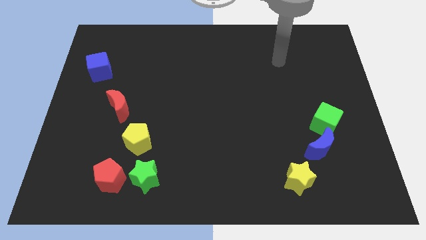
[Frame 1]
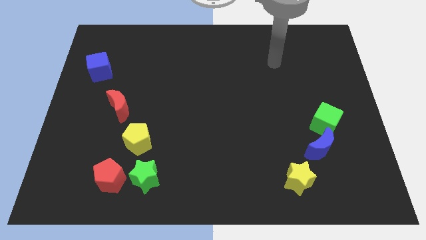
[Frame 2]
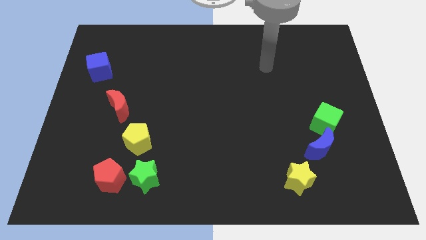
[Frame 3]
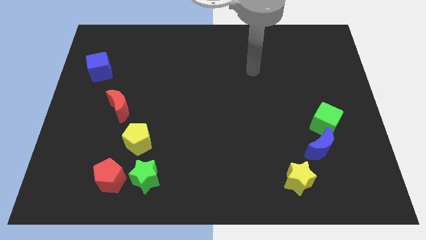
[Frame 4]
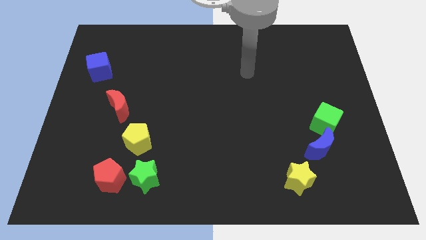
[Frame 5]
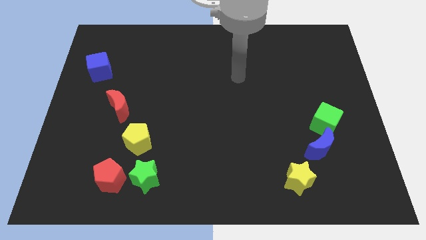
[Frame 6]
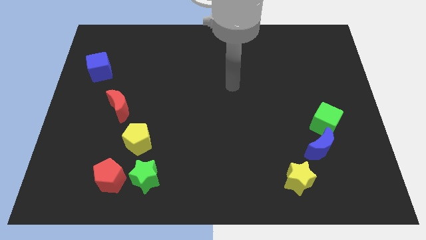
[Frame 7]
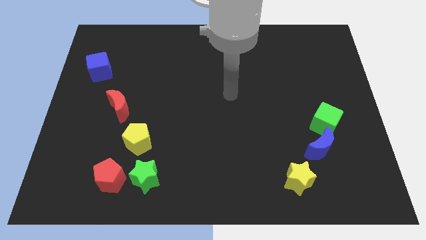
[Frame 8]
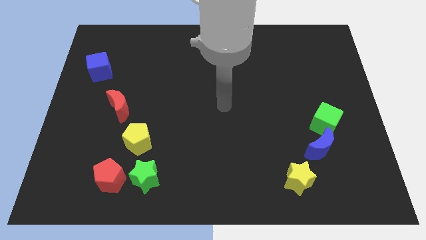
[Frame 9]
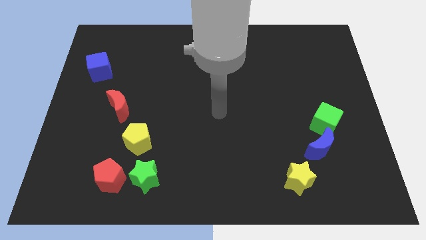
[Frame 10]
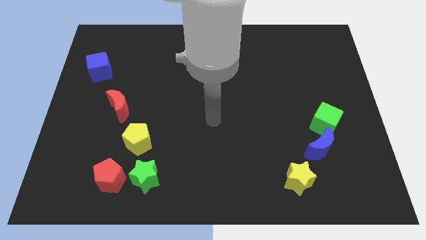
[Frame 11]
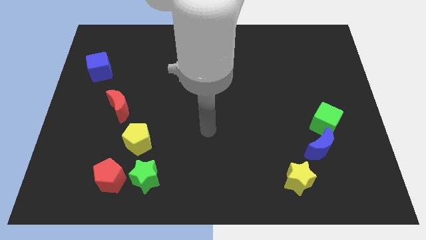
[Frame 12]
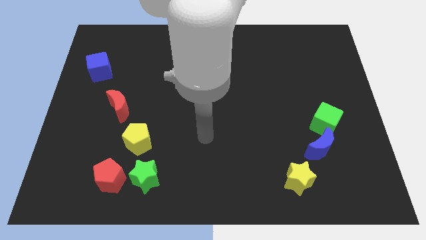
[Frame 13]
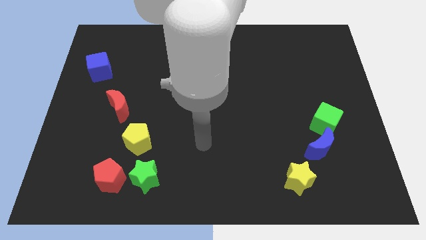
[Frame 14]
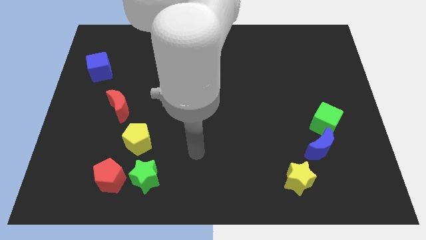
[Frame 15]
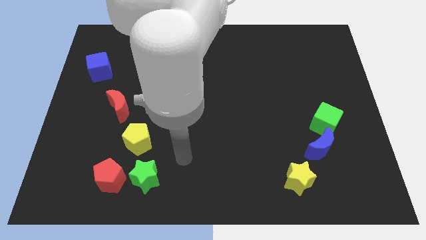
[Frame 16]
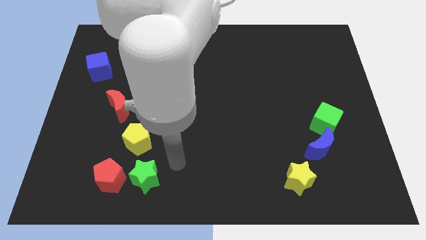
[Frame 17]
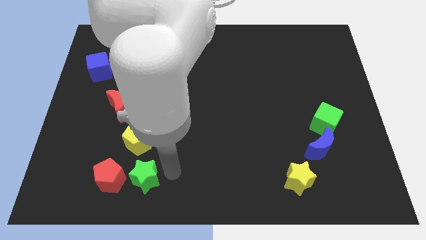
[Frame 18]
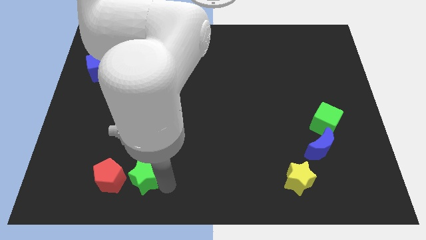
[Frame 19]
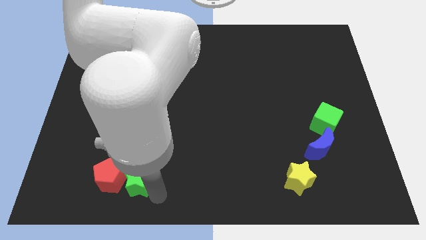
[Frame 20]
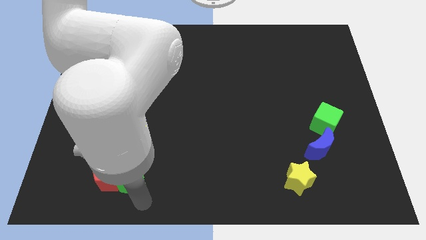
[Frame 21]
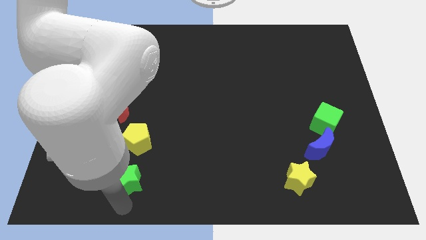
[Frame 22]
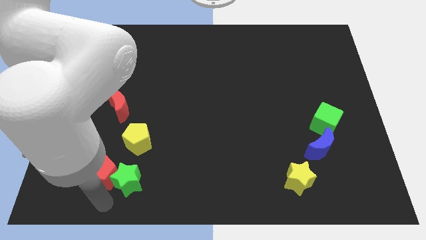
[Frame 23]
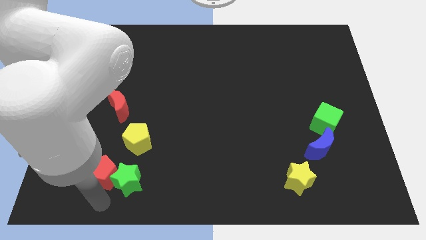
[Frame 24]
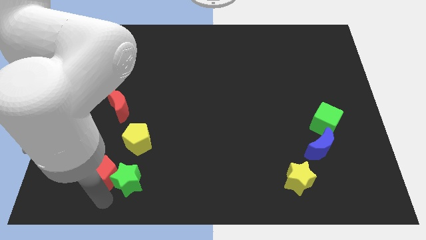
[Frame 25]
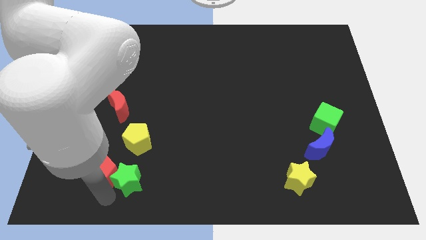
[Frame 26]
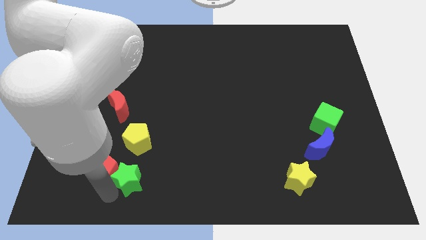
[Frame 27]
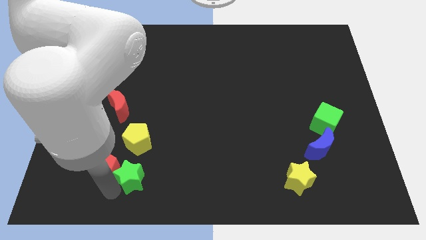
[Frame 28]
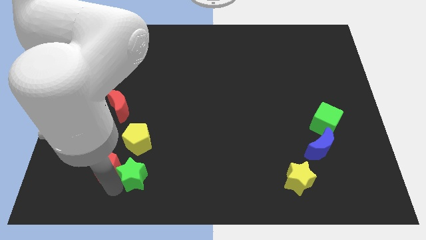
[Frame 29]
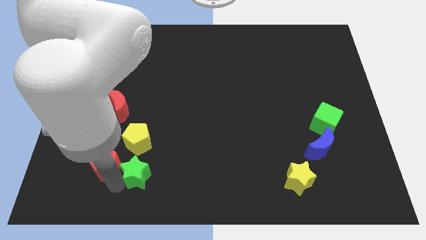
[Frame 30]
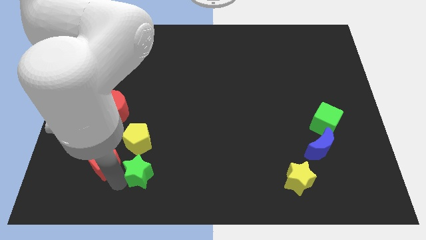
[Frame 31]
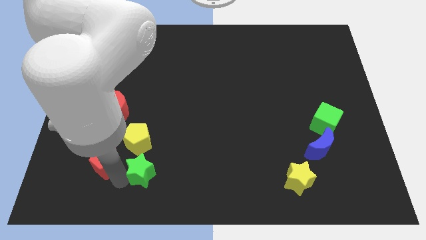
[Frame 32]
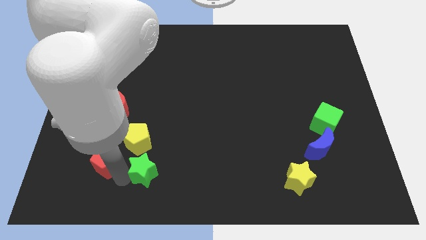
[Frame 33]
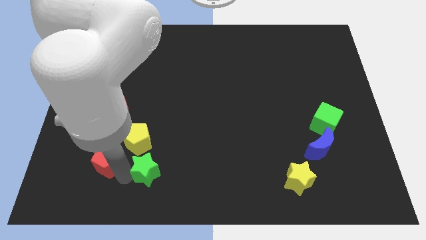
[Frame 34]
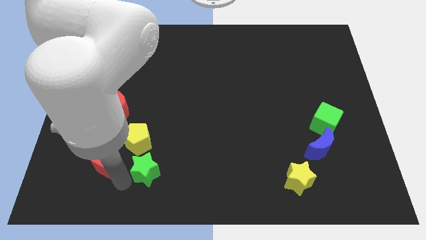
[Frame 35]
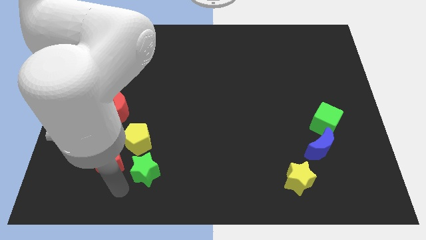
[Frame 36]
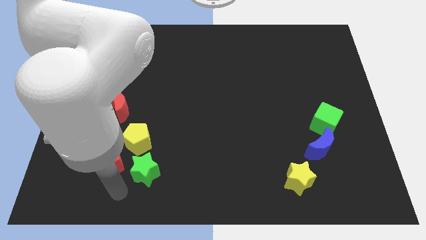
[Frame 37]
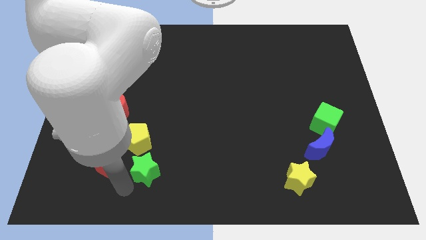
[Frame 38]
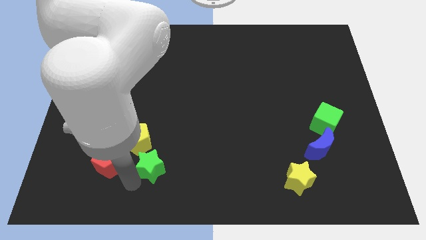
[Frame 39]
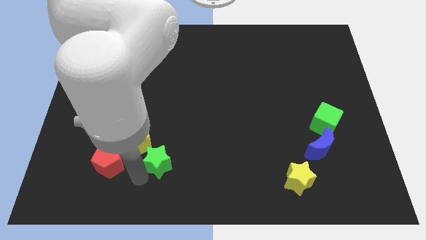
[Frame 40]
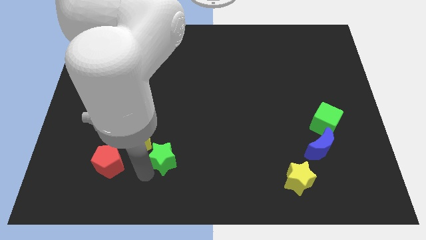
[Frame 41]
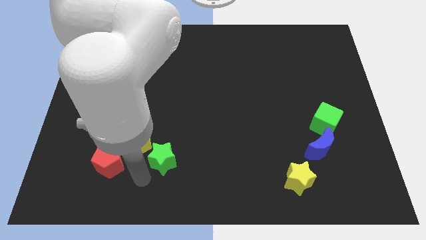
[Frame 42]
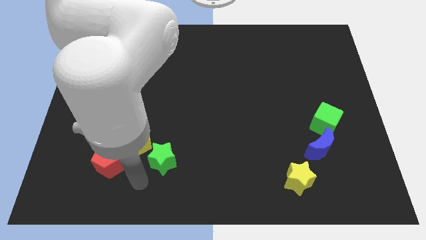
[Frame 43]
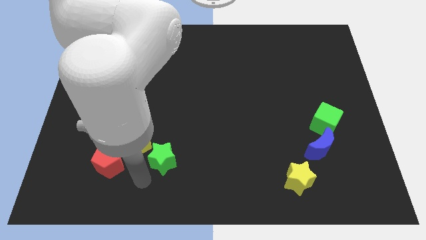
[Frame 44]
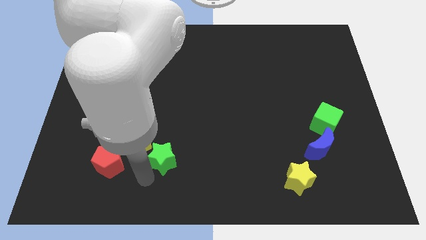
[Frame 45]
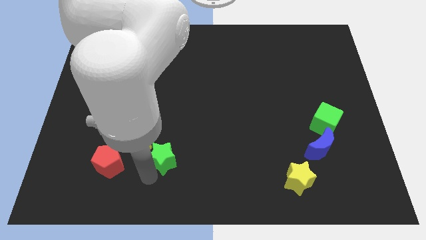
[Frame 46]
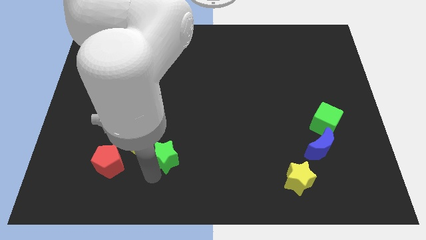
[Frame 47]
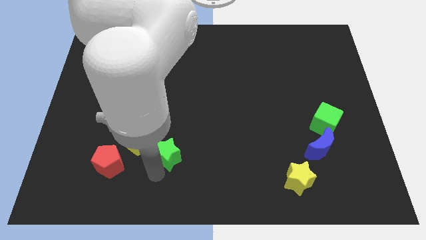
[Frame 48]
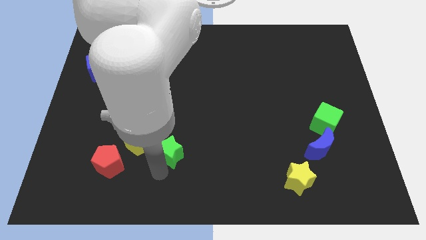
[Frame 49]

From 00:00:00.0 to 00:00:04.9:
slightly slide the green star diagonally up and right

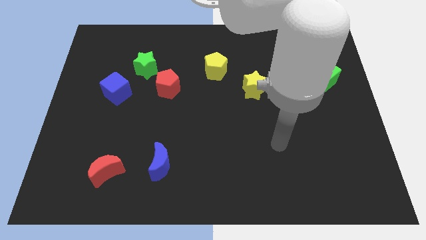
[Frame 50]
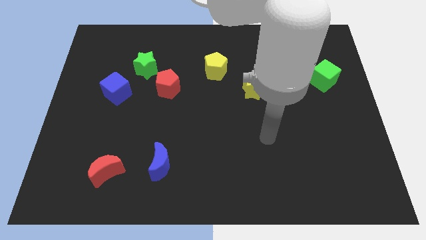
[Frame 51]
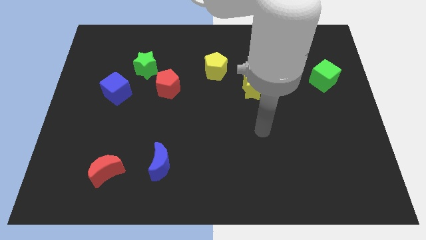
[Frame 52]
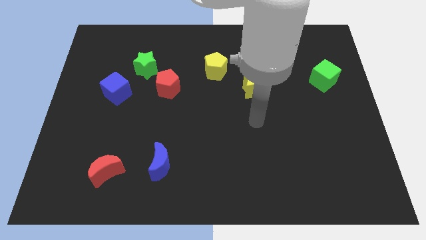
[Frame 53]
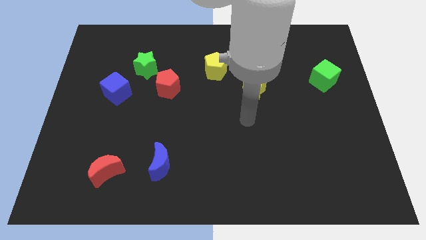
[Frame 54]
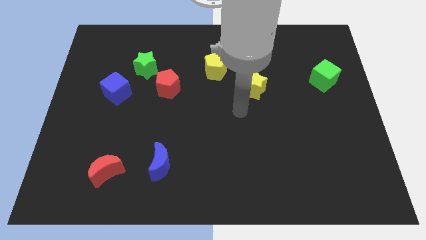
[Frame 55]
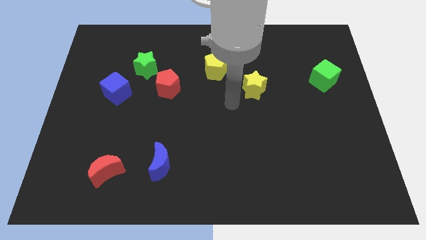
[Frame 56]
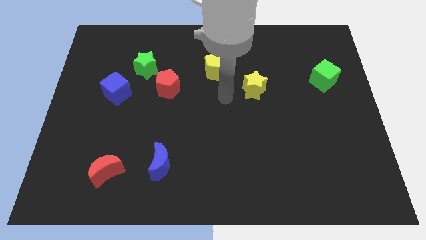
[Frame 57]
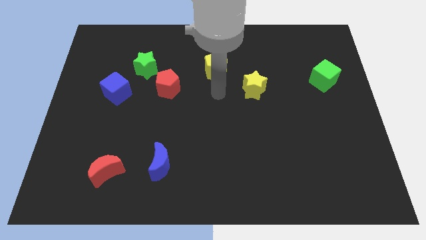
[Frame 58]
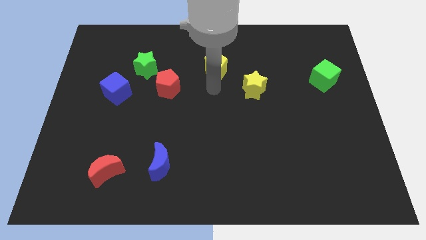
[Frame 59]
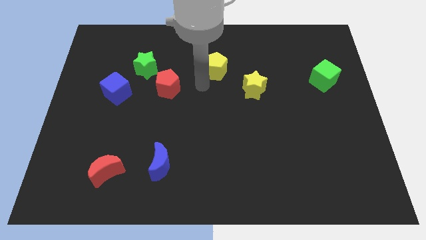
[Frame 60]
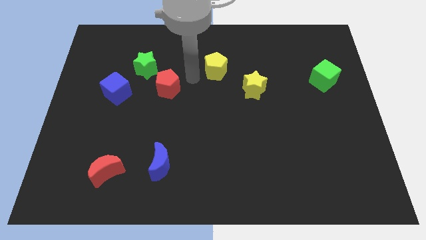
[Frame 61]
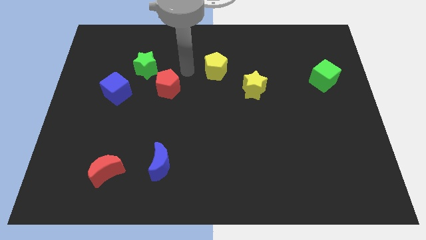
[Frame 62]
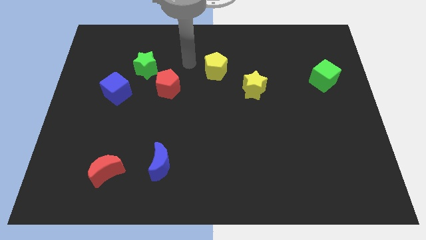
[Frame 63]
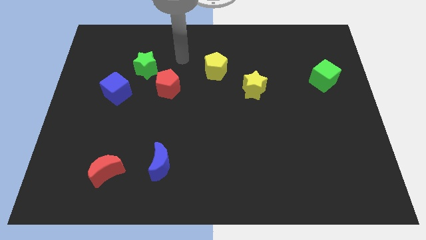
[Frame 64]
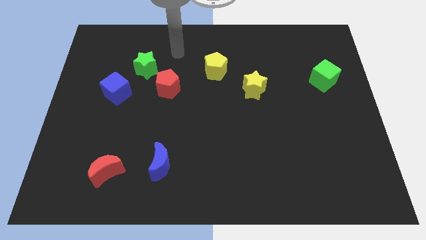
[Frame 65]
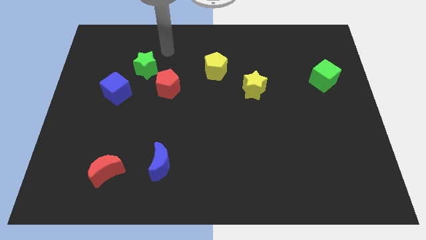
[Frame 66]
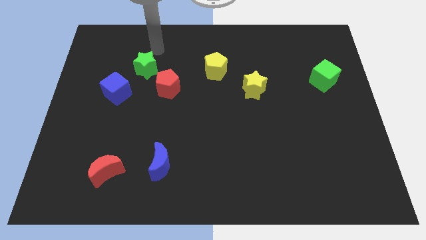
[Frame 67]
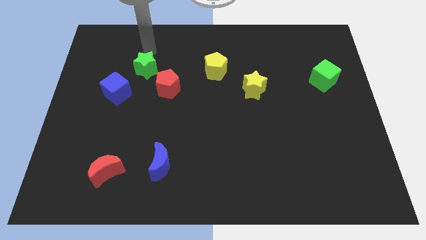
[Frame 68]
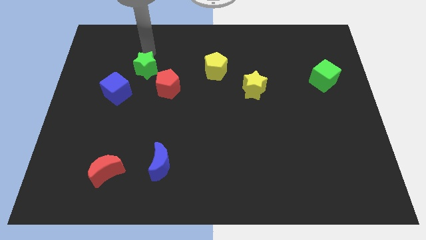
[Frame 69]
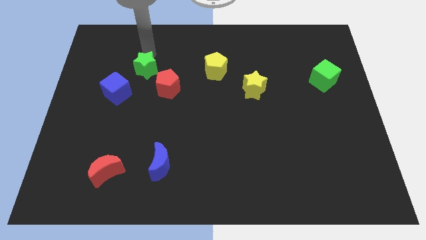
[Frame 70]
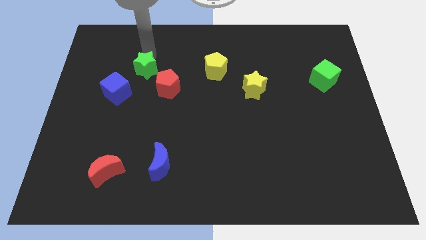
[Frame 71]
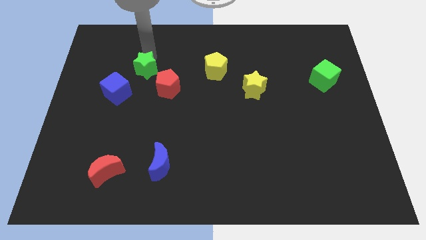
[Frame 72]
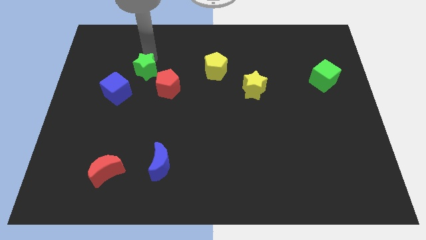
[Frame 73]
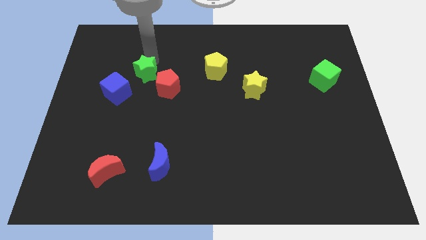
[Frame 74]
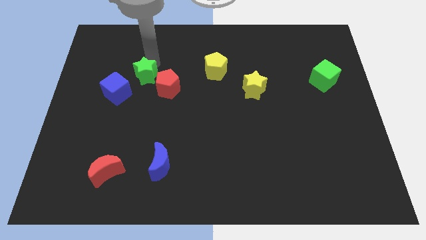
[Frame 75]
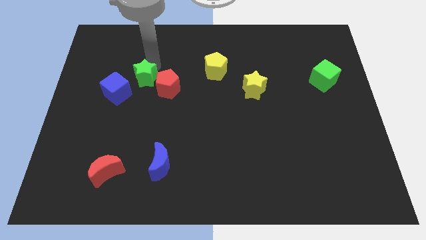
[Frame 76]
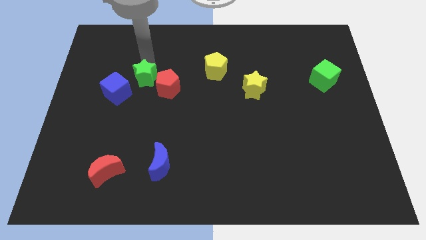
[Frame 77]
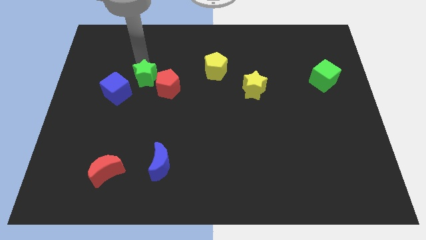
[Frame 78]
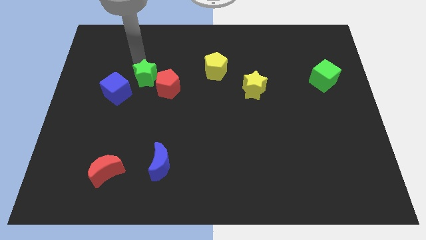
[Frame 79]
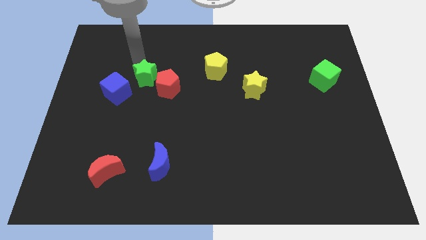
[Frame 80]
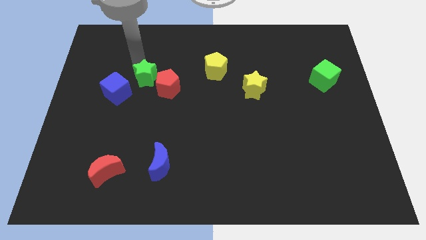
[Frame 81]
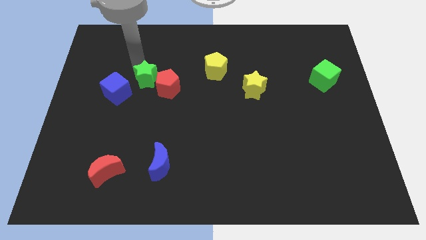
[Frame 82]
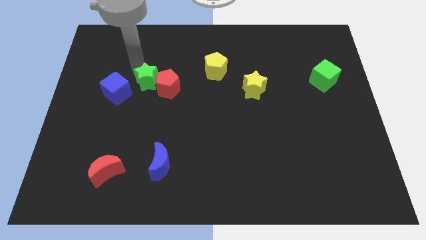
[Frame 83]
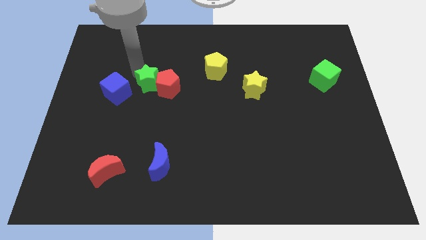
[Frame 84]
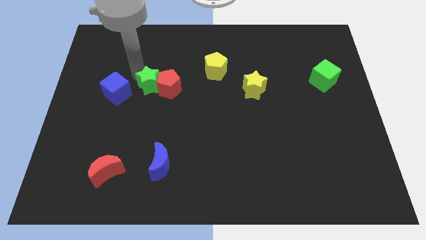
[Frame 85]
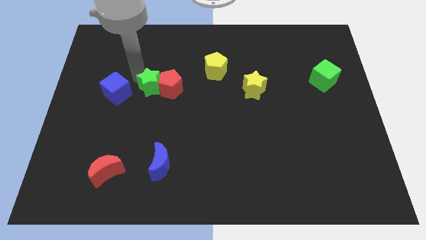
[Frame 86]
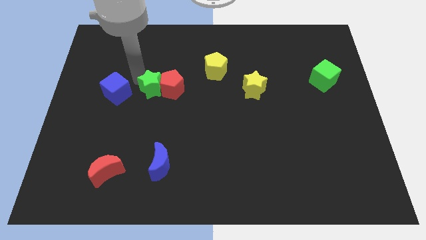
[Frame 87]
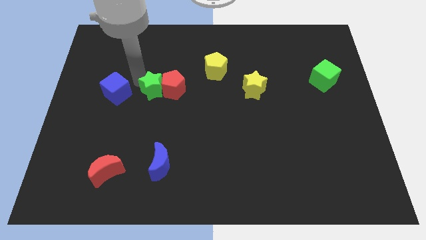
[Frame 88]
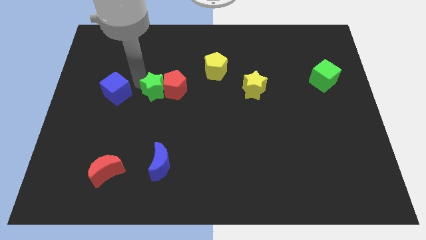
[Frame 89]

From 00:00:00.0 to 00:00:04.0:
push the green star down and to the right slightly
